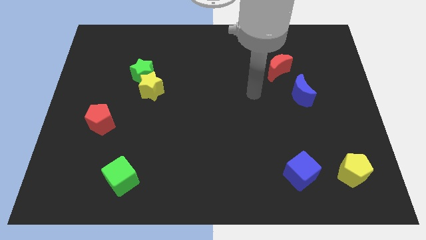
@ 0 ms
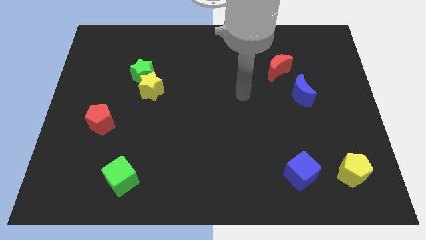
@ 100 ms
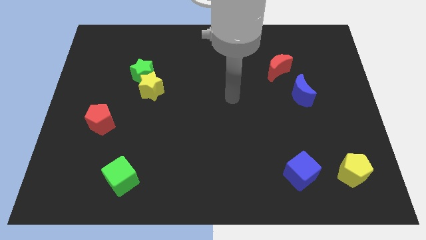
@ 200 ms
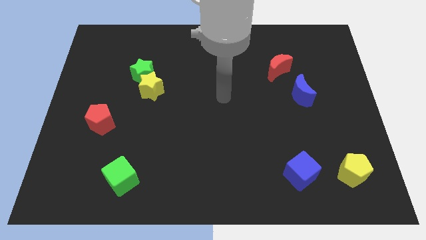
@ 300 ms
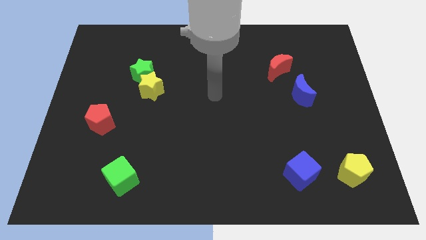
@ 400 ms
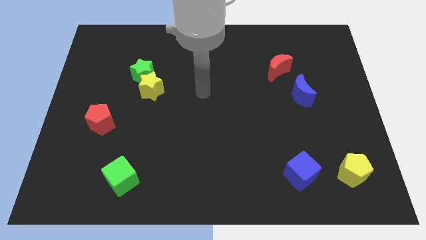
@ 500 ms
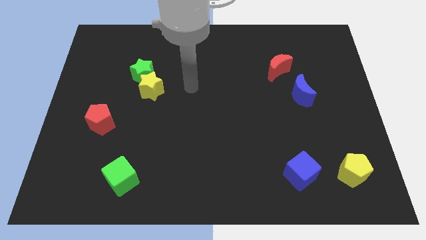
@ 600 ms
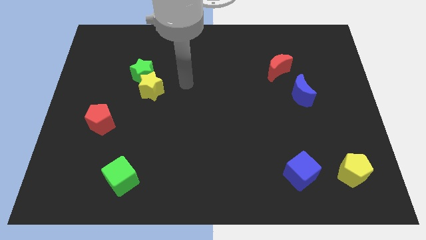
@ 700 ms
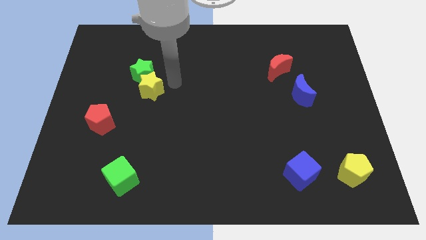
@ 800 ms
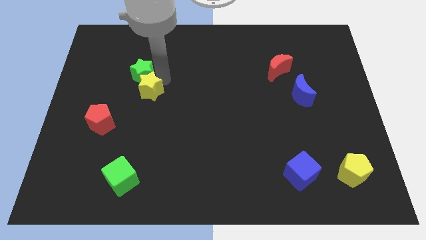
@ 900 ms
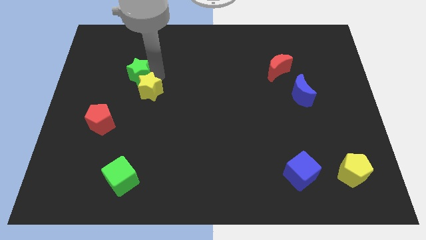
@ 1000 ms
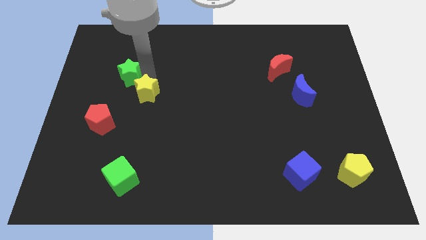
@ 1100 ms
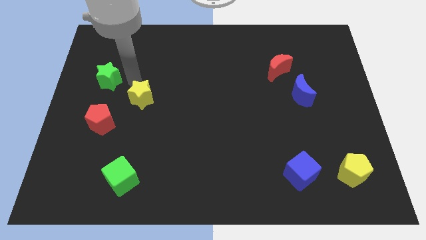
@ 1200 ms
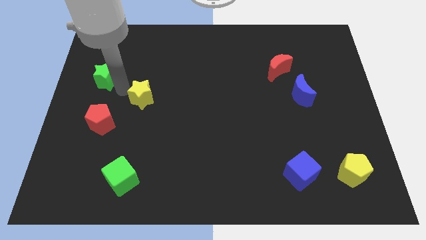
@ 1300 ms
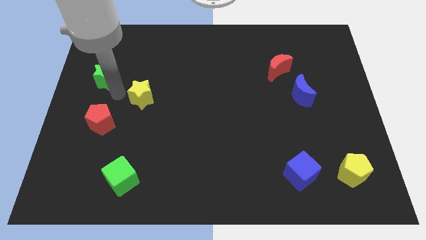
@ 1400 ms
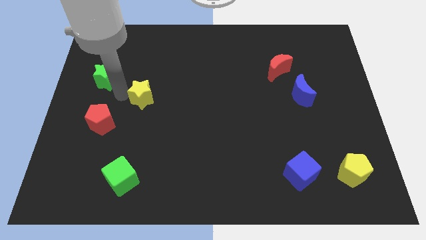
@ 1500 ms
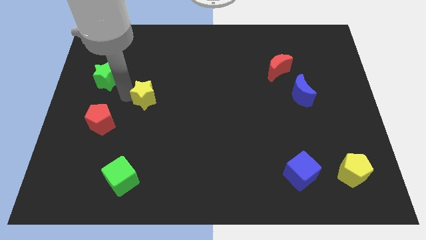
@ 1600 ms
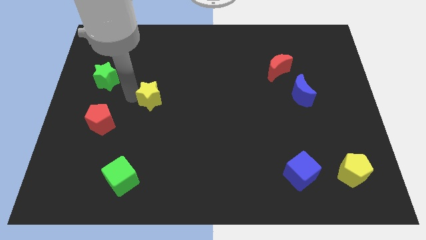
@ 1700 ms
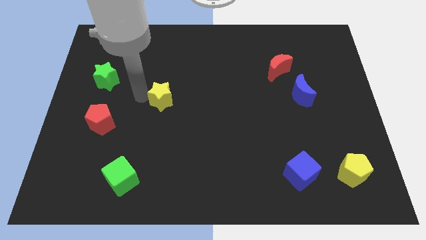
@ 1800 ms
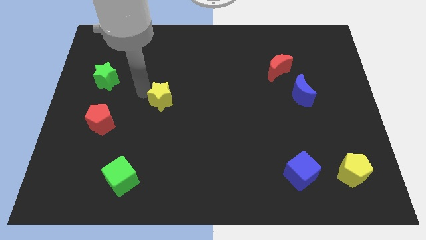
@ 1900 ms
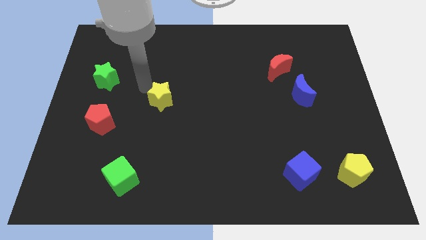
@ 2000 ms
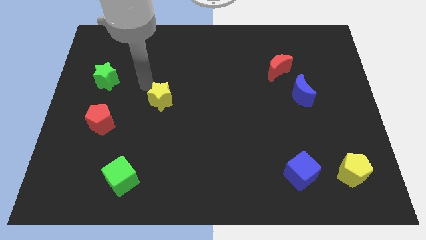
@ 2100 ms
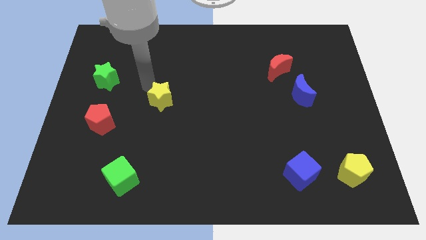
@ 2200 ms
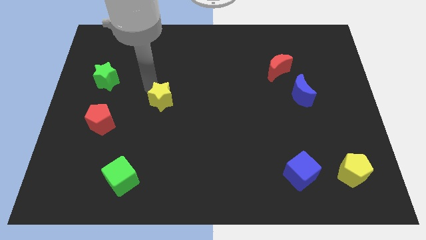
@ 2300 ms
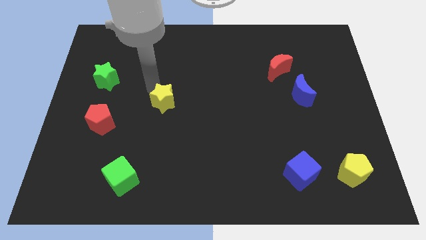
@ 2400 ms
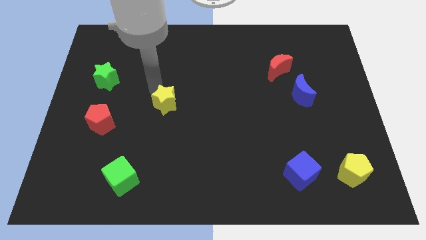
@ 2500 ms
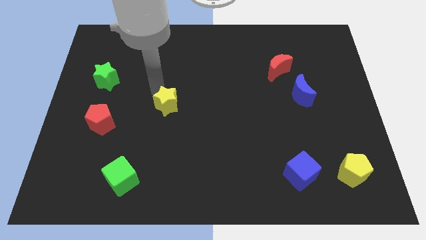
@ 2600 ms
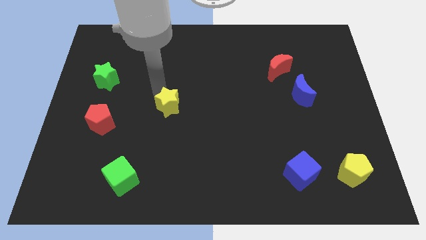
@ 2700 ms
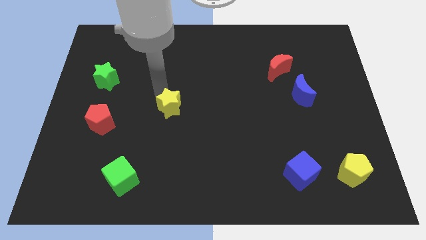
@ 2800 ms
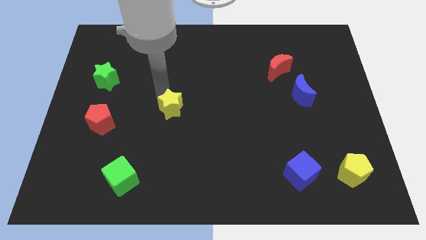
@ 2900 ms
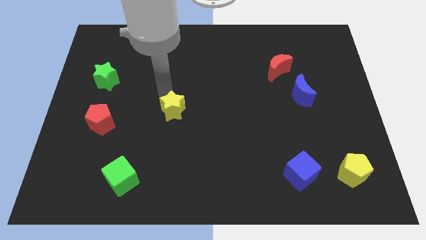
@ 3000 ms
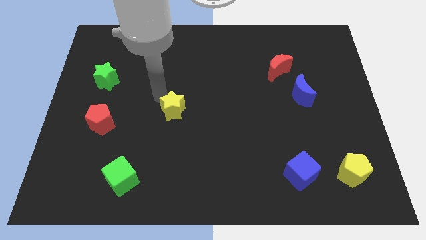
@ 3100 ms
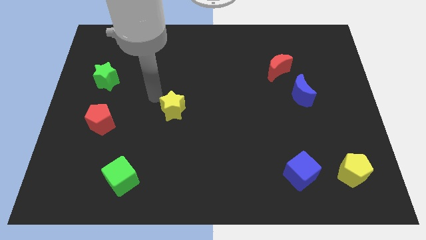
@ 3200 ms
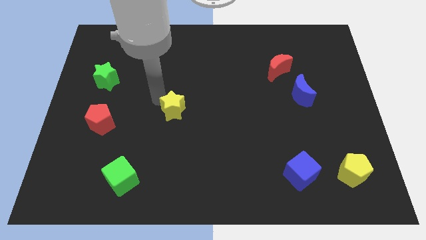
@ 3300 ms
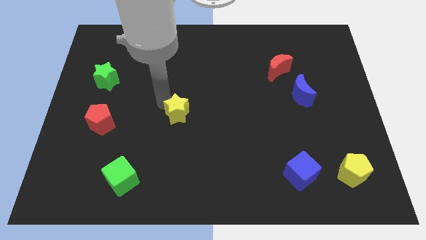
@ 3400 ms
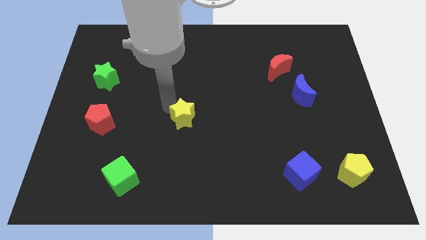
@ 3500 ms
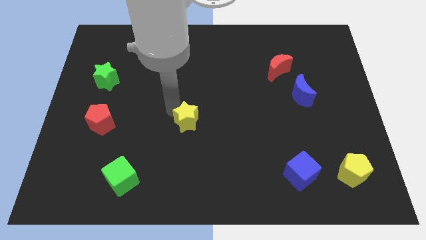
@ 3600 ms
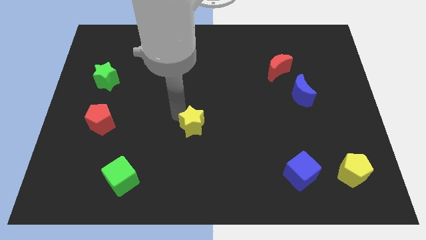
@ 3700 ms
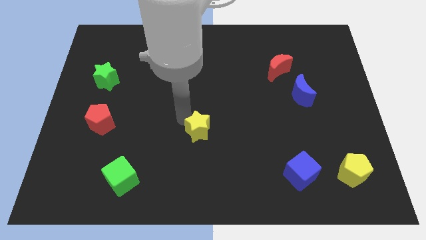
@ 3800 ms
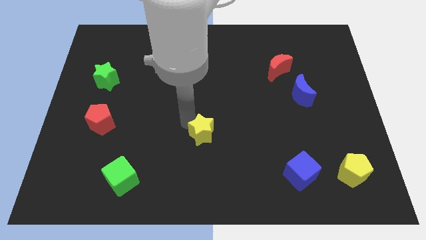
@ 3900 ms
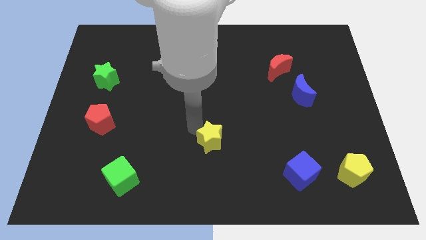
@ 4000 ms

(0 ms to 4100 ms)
slide the yellow star down and right diagonally

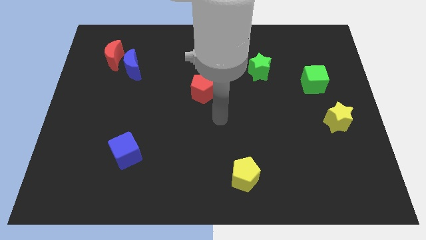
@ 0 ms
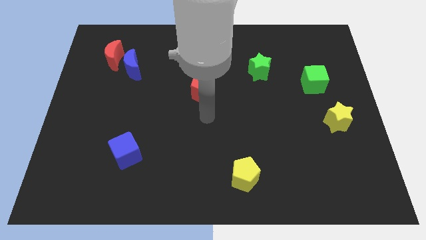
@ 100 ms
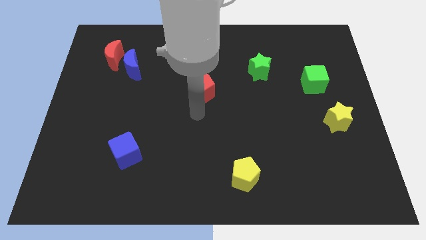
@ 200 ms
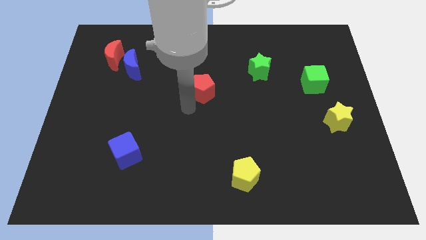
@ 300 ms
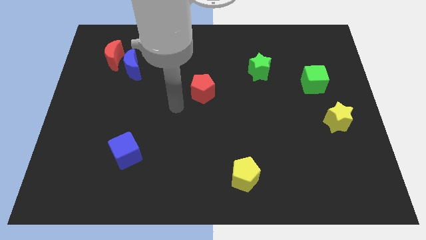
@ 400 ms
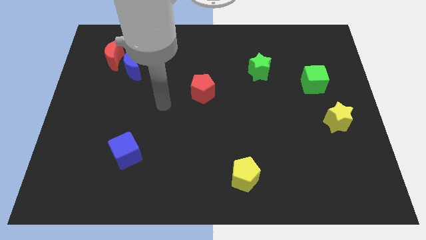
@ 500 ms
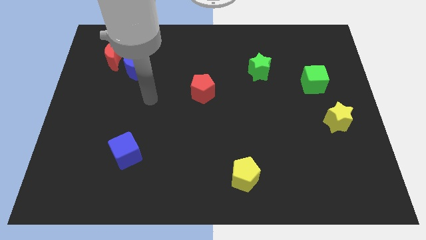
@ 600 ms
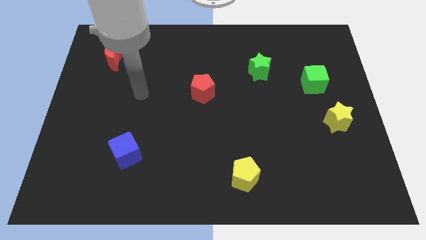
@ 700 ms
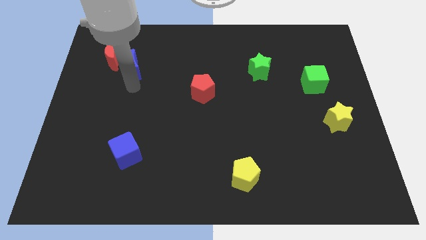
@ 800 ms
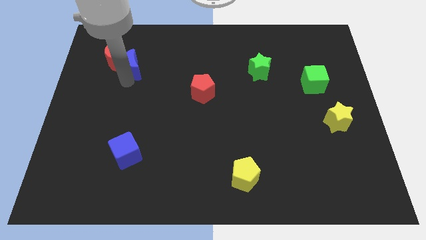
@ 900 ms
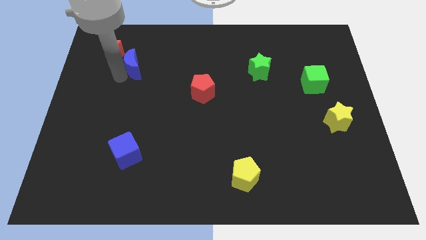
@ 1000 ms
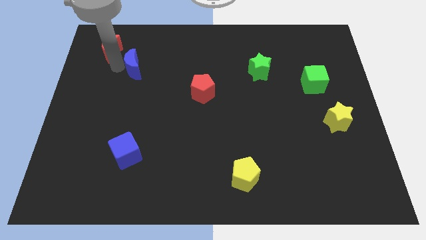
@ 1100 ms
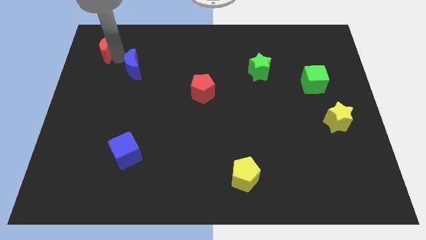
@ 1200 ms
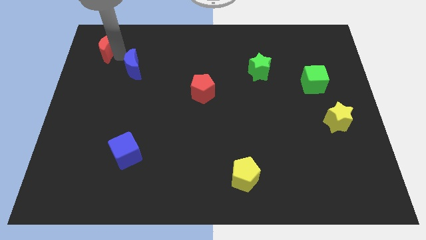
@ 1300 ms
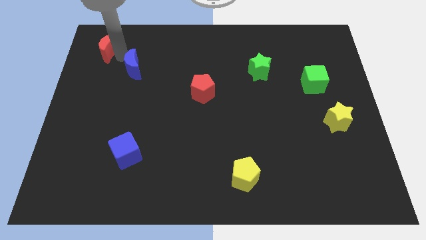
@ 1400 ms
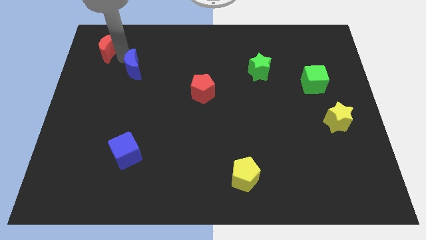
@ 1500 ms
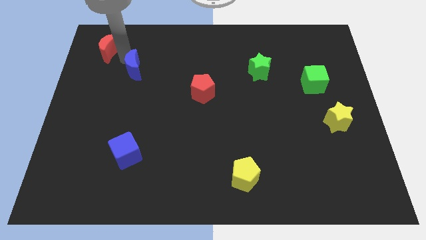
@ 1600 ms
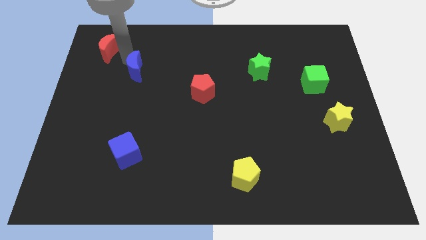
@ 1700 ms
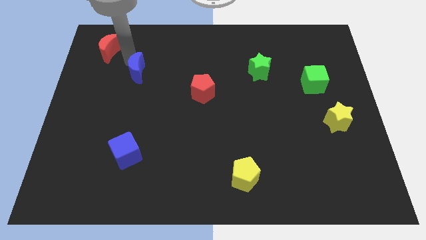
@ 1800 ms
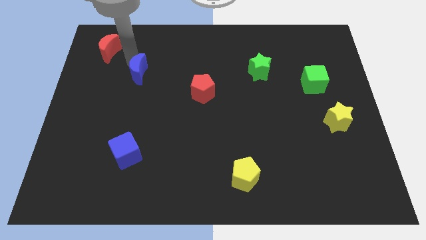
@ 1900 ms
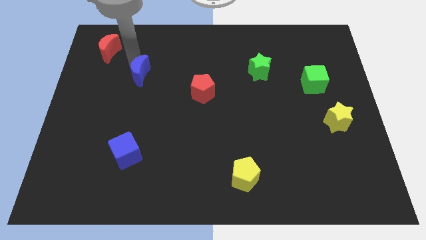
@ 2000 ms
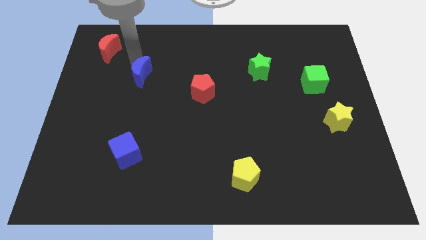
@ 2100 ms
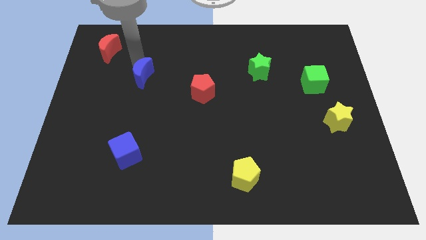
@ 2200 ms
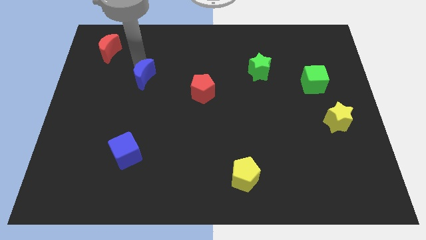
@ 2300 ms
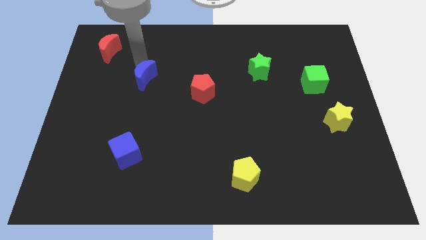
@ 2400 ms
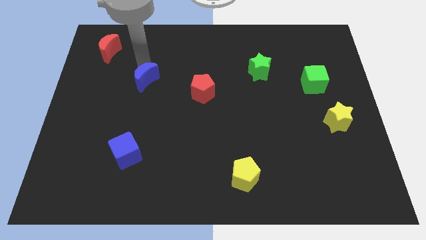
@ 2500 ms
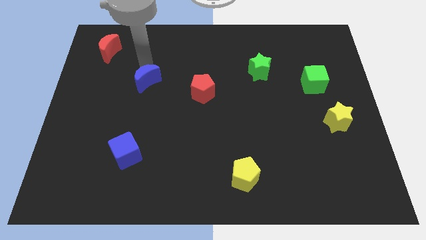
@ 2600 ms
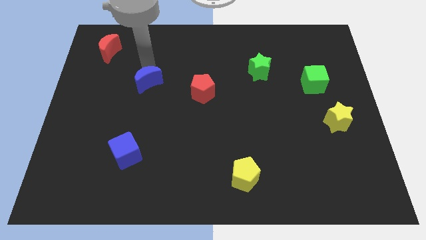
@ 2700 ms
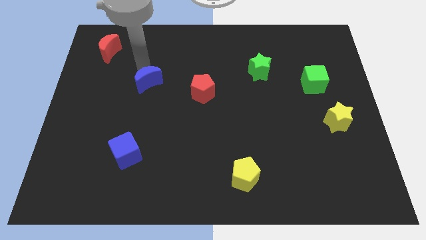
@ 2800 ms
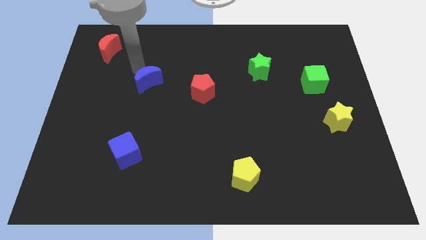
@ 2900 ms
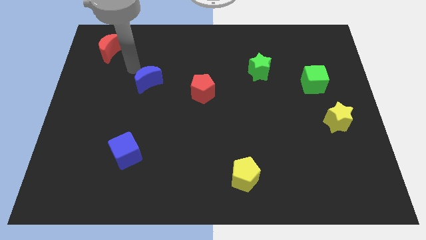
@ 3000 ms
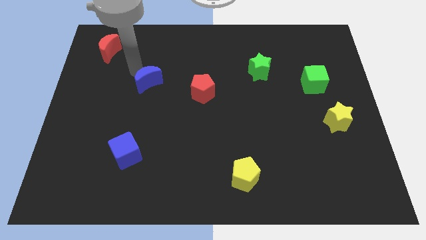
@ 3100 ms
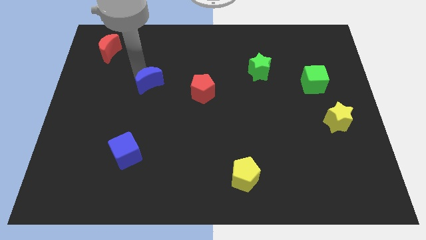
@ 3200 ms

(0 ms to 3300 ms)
move the blue moon a little diagonally down and to the right

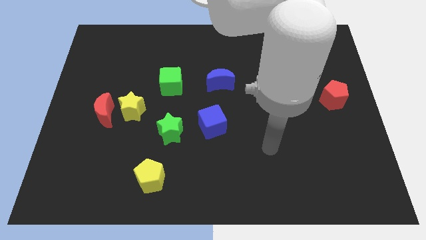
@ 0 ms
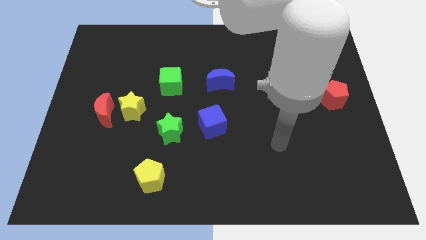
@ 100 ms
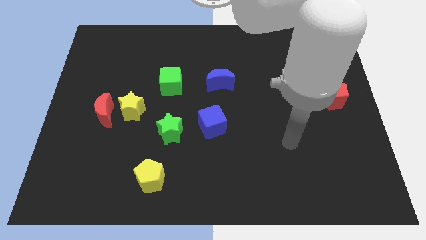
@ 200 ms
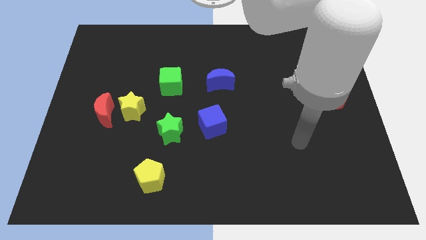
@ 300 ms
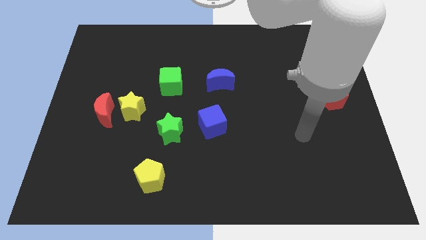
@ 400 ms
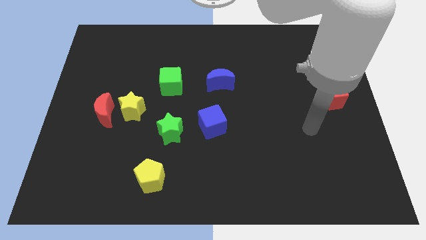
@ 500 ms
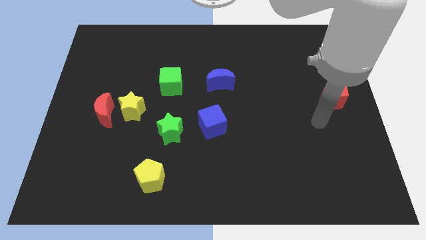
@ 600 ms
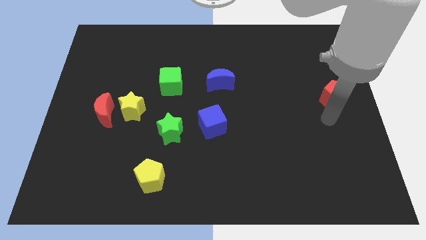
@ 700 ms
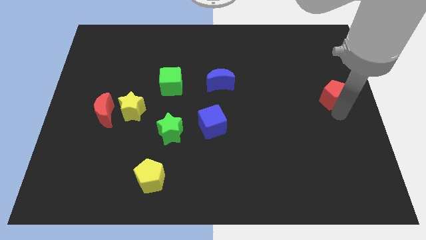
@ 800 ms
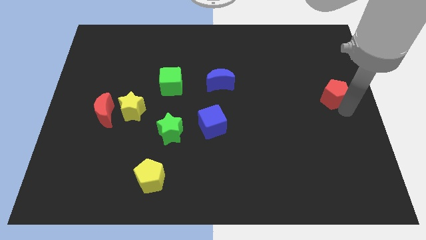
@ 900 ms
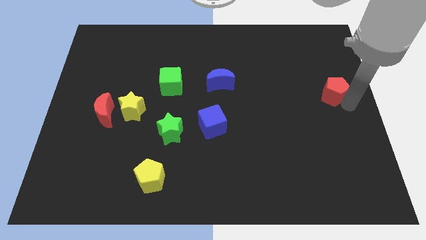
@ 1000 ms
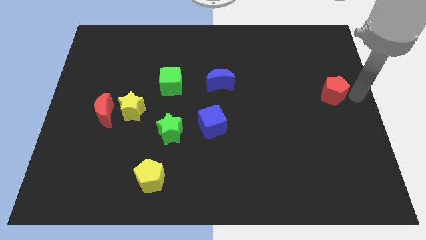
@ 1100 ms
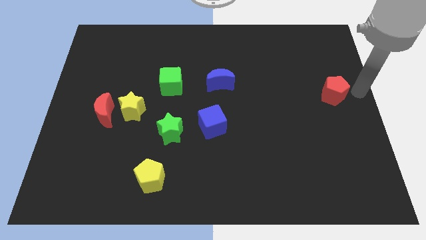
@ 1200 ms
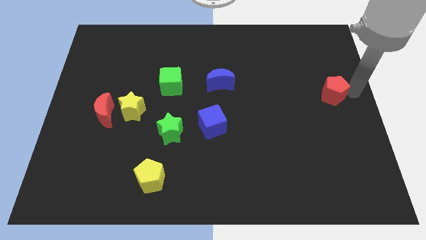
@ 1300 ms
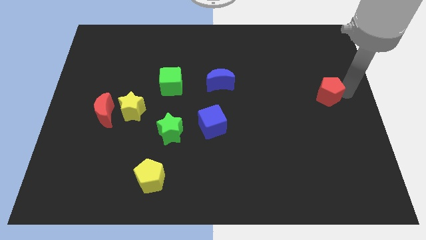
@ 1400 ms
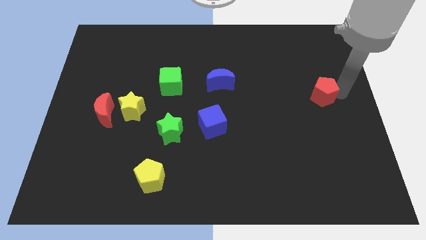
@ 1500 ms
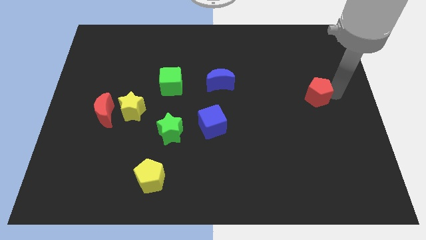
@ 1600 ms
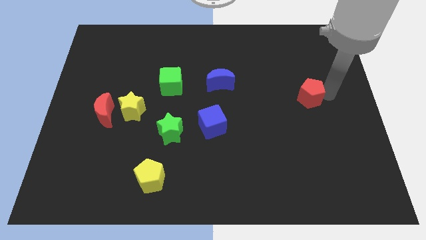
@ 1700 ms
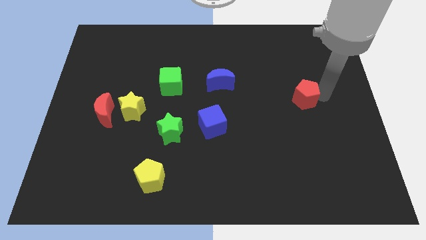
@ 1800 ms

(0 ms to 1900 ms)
slightly push the red pentagon to the left
